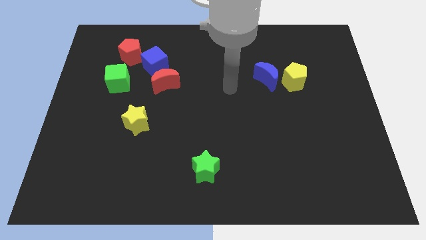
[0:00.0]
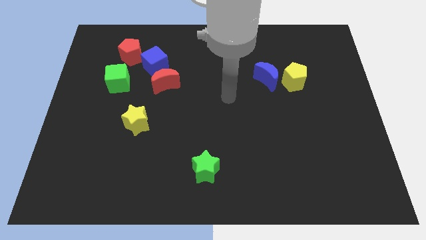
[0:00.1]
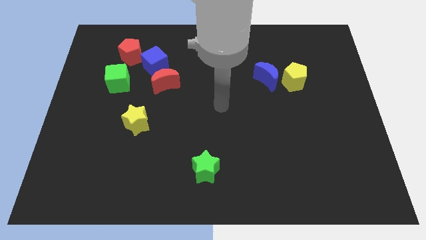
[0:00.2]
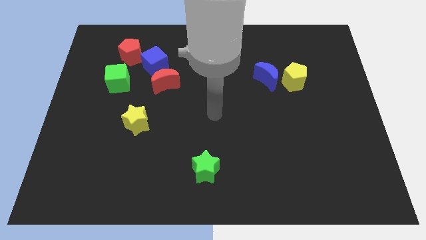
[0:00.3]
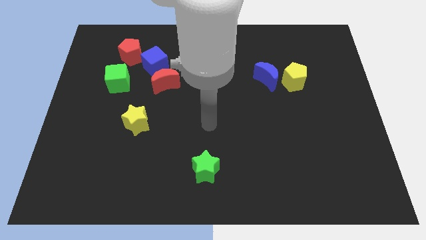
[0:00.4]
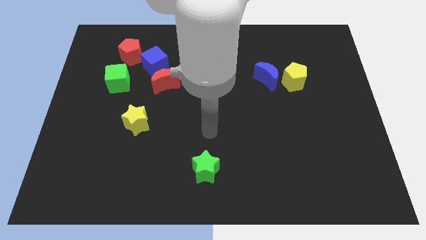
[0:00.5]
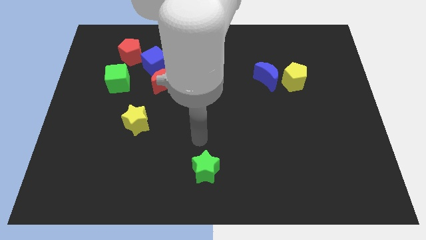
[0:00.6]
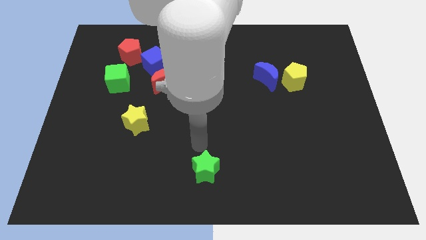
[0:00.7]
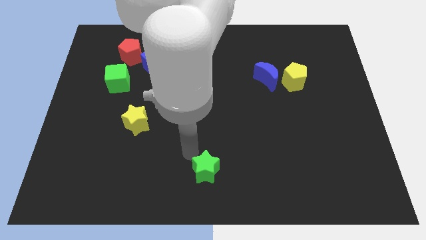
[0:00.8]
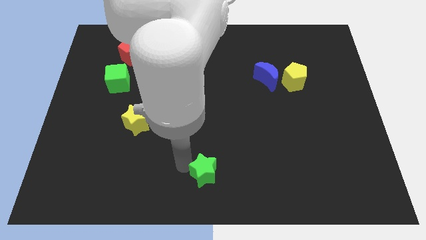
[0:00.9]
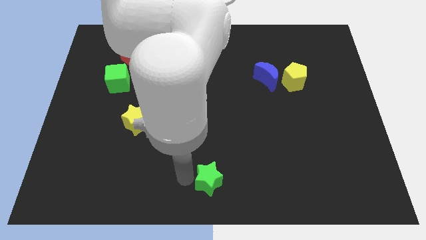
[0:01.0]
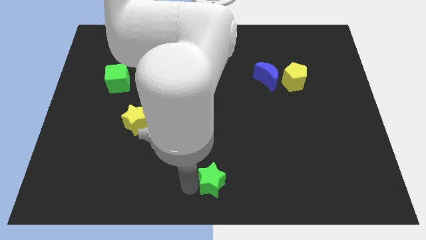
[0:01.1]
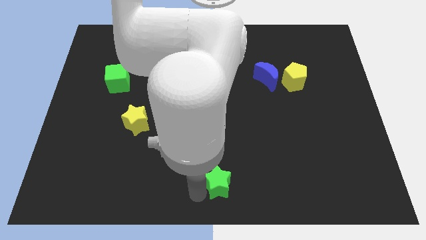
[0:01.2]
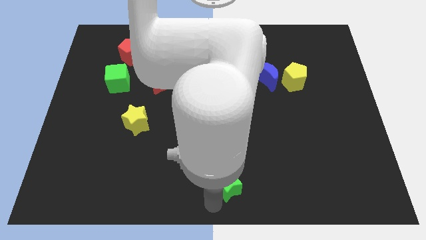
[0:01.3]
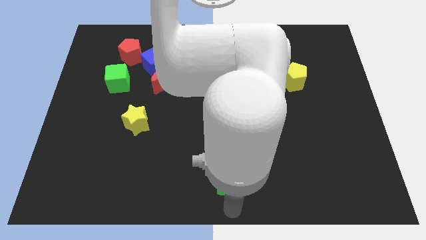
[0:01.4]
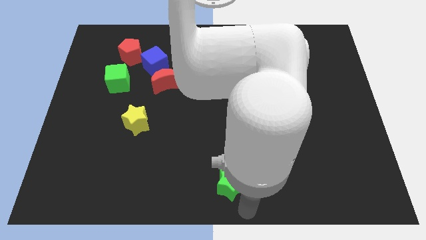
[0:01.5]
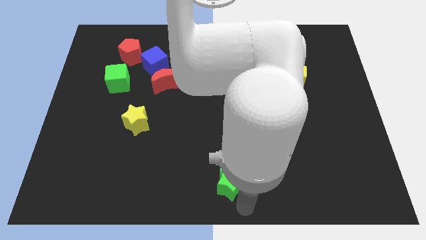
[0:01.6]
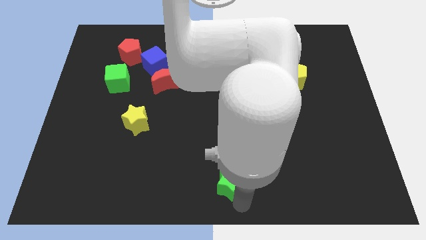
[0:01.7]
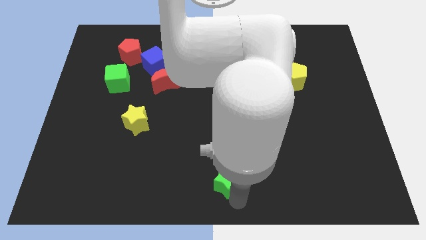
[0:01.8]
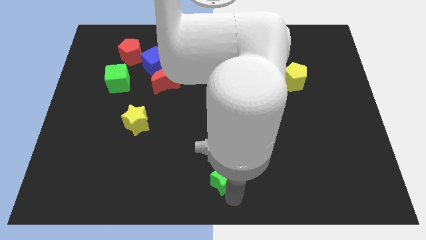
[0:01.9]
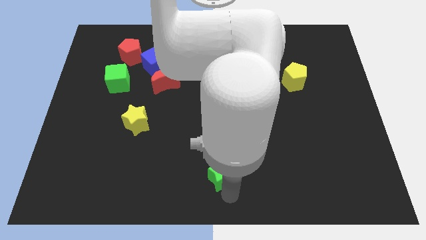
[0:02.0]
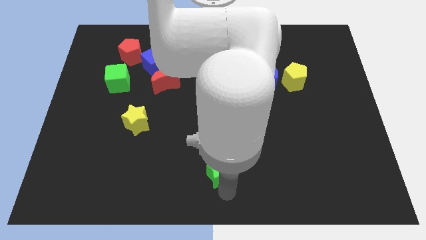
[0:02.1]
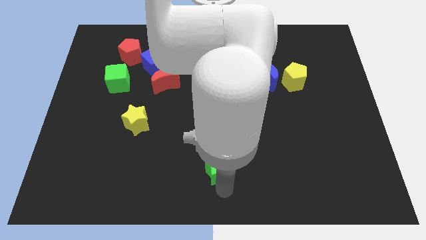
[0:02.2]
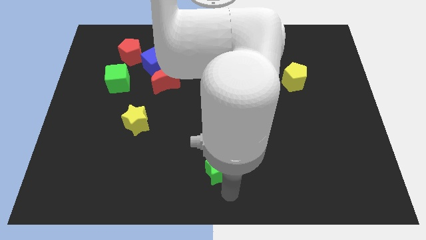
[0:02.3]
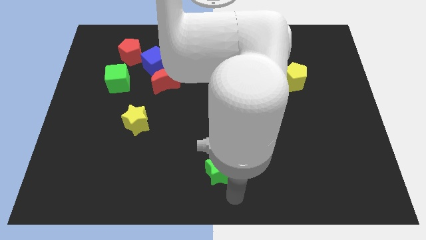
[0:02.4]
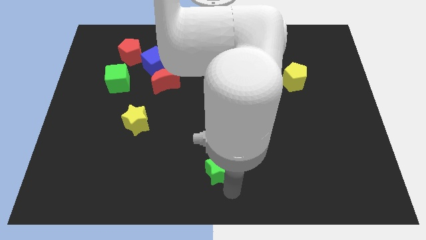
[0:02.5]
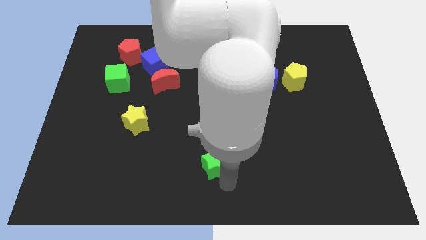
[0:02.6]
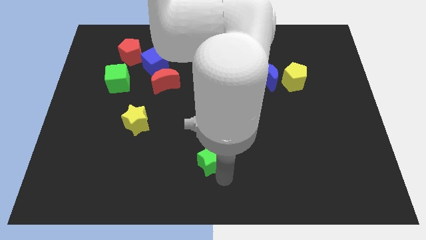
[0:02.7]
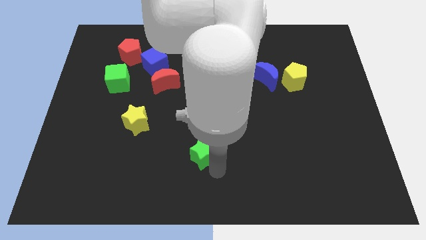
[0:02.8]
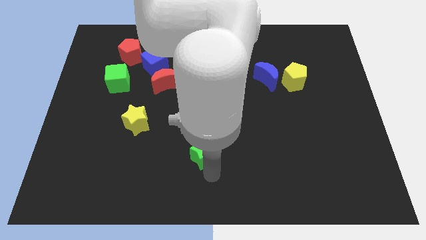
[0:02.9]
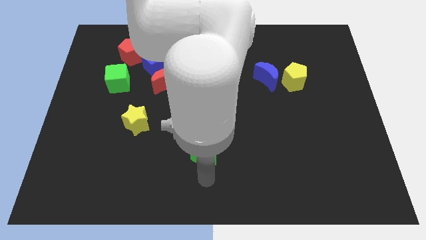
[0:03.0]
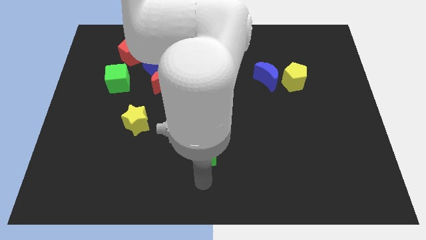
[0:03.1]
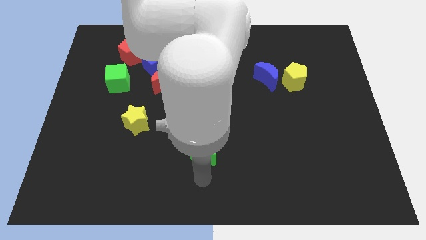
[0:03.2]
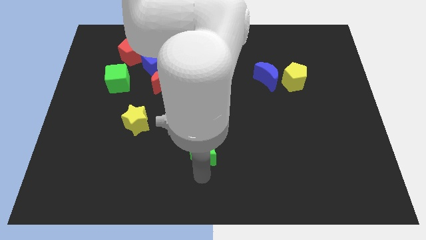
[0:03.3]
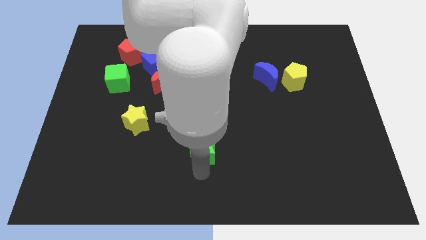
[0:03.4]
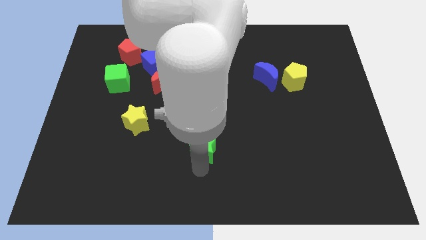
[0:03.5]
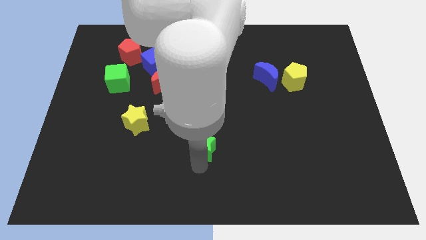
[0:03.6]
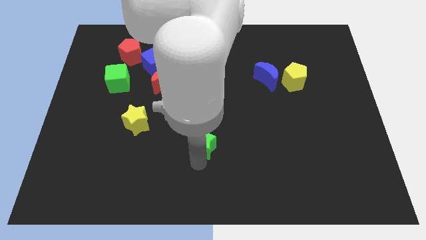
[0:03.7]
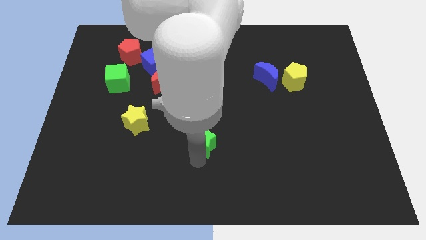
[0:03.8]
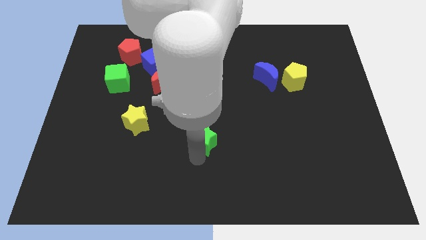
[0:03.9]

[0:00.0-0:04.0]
push the green star upwards a little

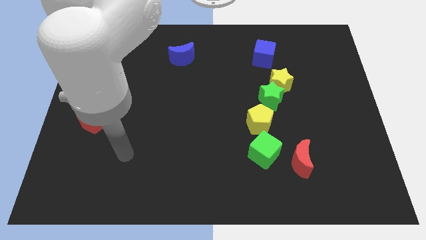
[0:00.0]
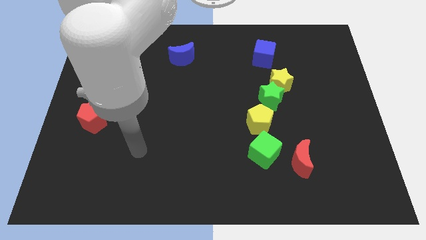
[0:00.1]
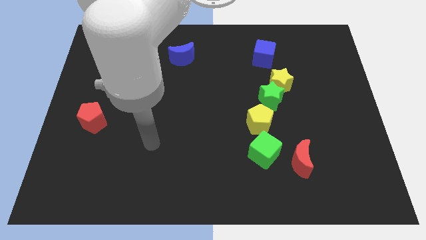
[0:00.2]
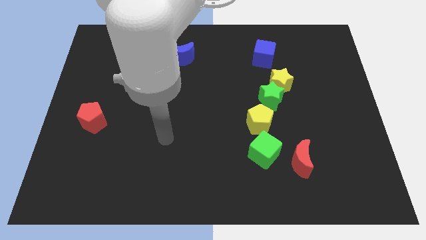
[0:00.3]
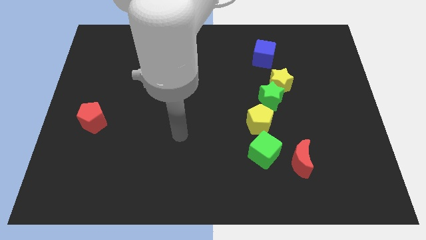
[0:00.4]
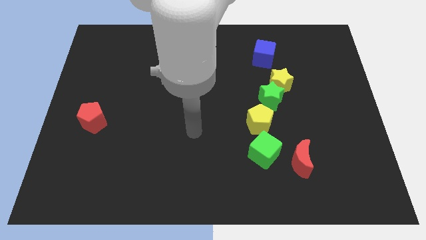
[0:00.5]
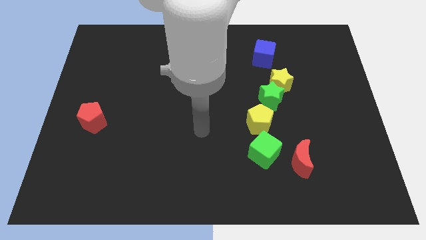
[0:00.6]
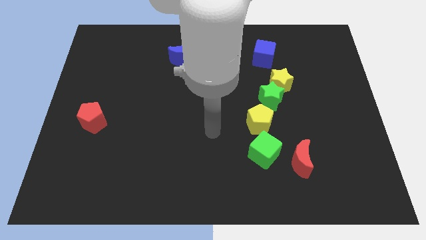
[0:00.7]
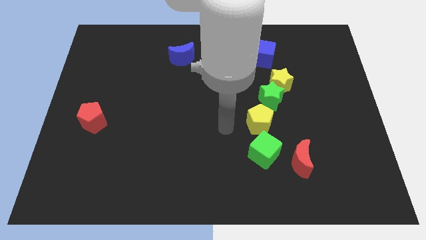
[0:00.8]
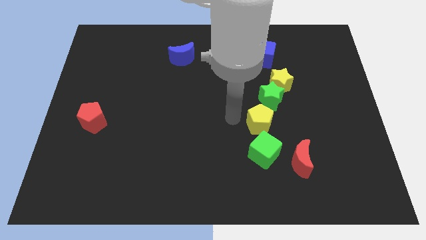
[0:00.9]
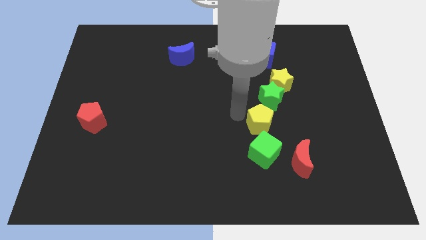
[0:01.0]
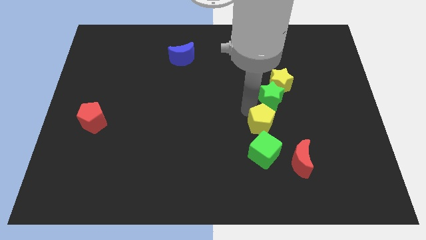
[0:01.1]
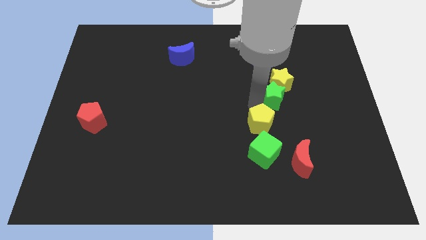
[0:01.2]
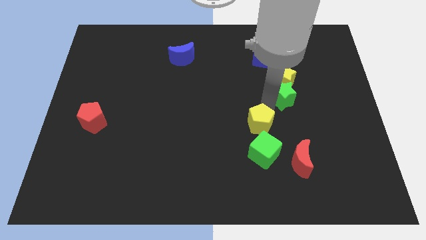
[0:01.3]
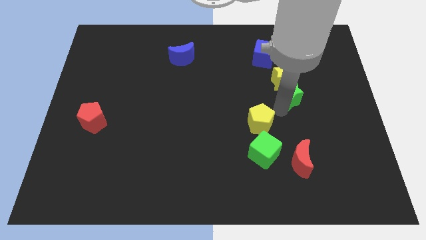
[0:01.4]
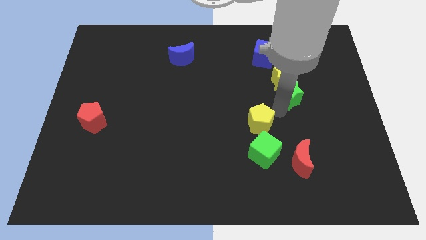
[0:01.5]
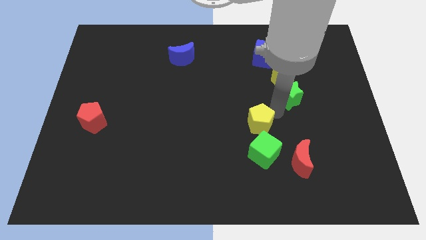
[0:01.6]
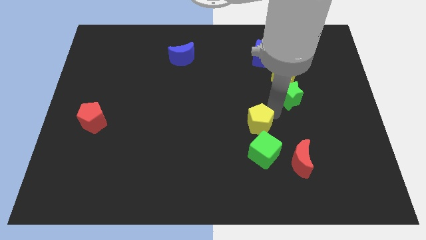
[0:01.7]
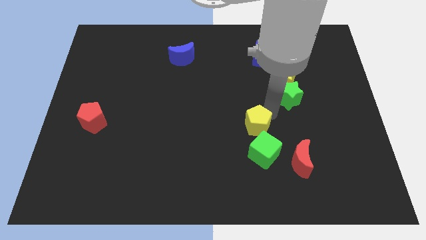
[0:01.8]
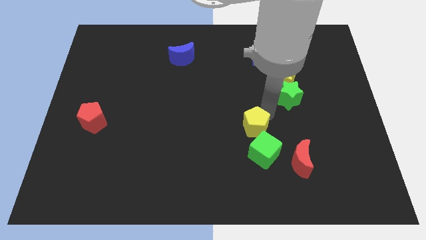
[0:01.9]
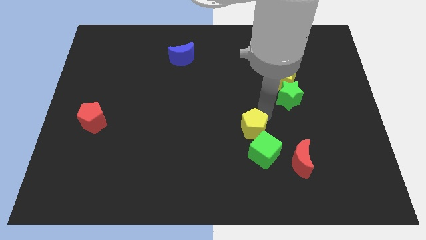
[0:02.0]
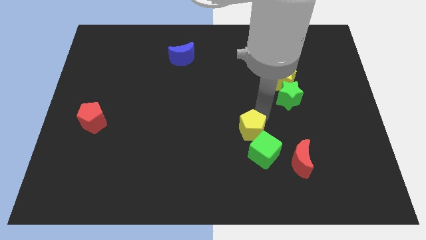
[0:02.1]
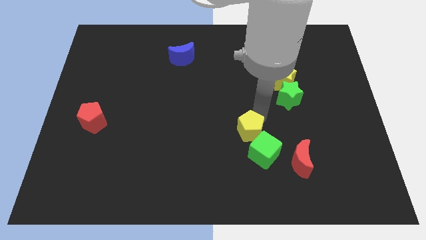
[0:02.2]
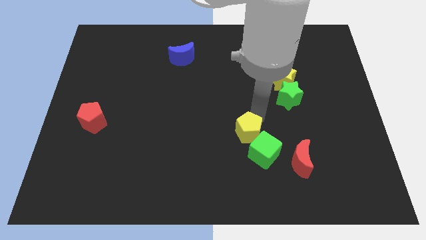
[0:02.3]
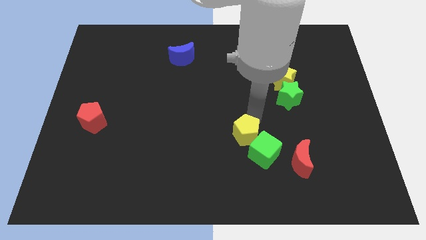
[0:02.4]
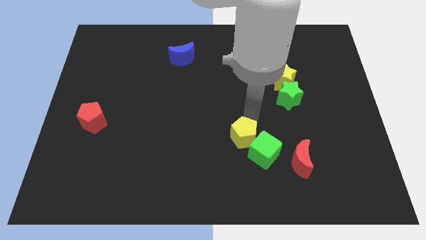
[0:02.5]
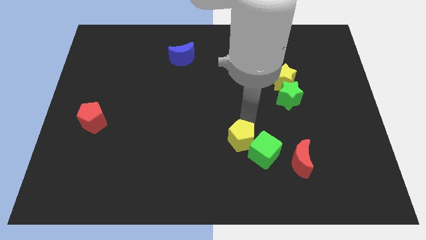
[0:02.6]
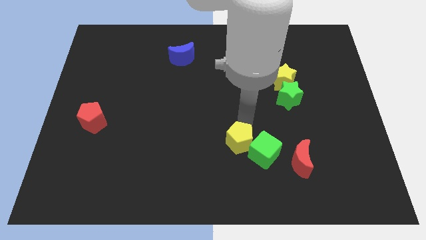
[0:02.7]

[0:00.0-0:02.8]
slightly move the yellow pentagon downwards and then left

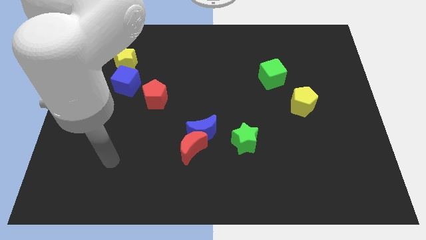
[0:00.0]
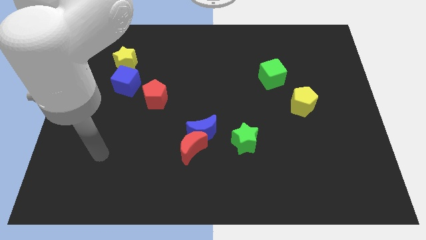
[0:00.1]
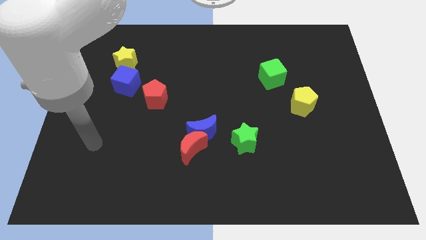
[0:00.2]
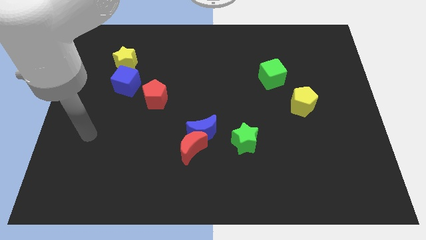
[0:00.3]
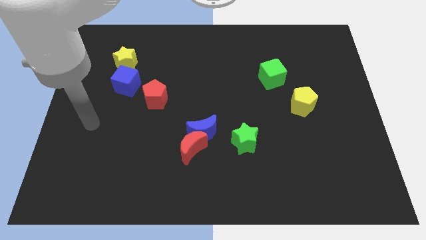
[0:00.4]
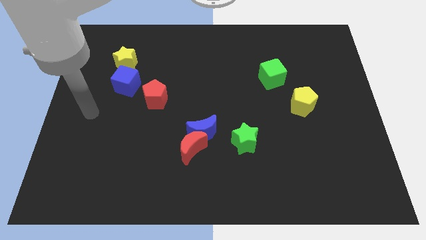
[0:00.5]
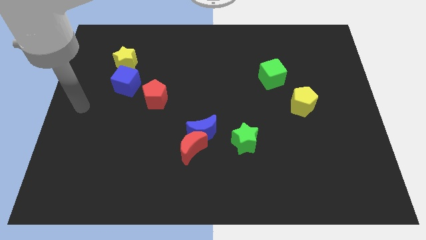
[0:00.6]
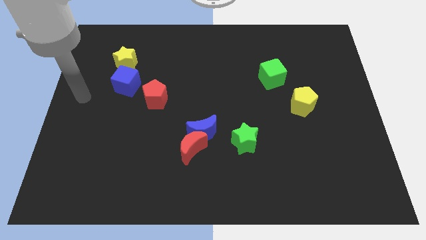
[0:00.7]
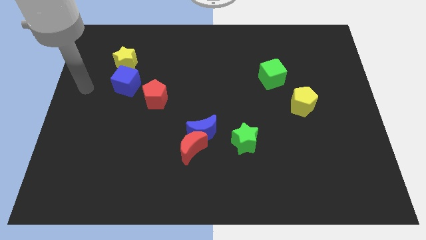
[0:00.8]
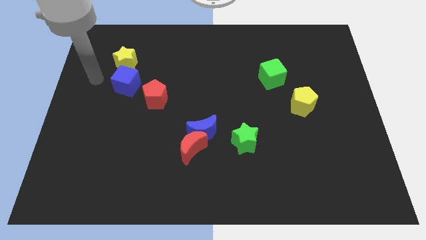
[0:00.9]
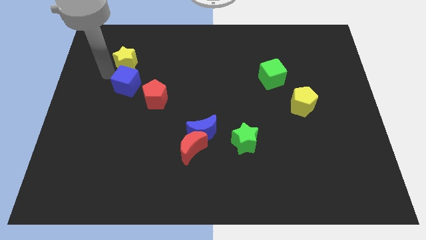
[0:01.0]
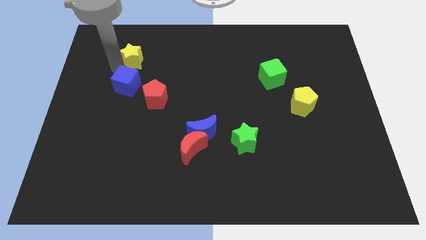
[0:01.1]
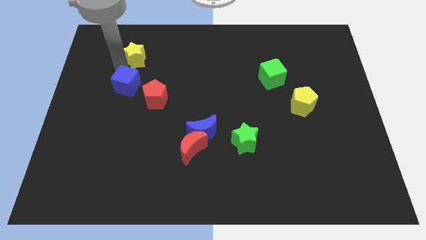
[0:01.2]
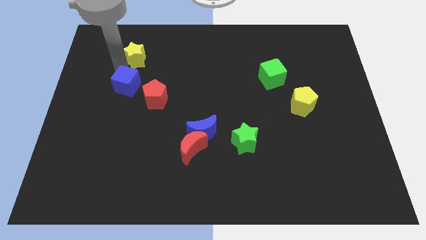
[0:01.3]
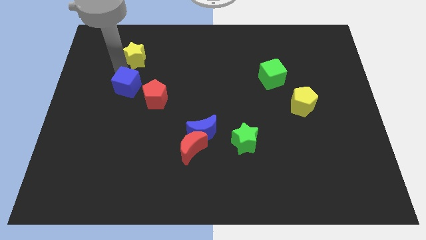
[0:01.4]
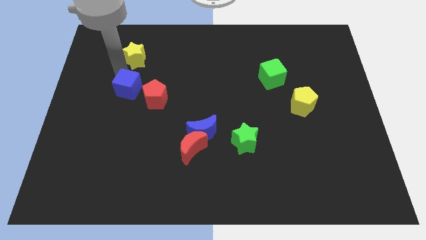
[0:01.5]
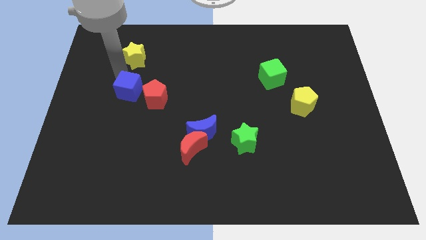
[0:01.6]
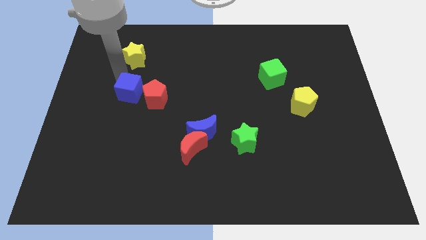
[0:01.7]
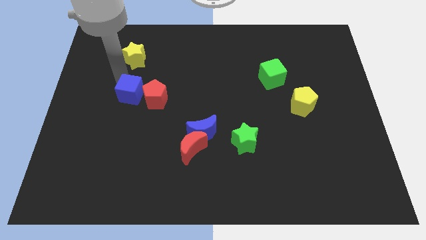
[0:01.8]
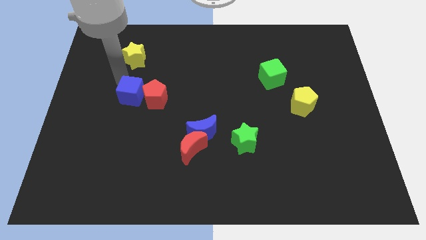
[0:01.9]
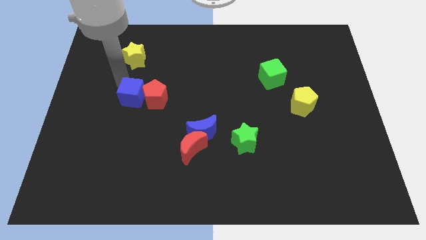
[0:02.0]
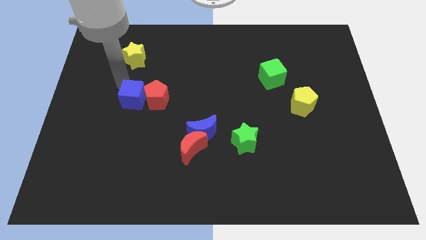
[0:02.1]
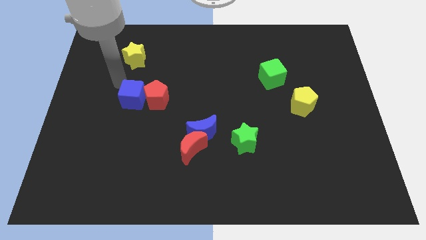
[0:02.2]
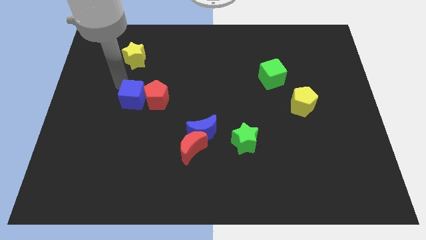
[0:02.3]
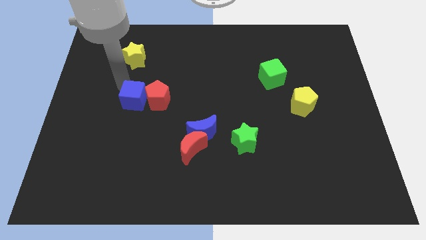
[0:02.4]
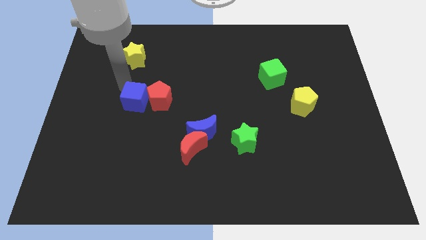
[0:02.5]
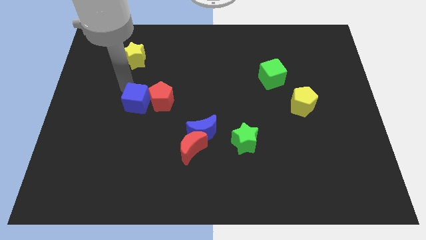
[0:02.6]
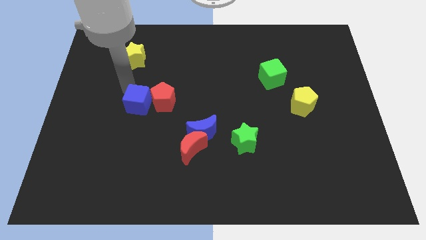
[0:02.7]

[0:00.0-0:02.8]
slightly push the blue cube diagonally downwards and right
